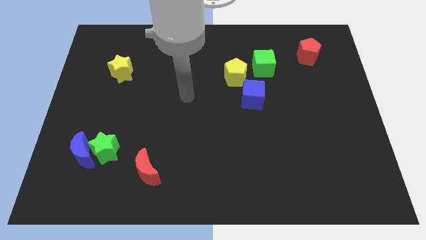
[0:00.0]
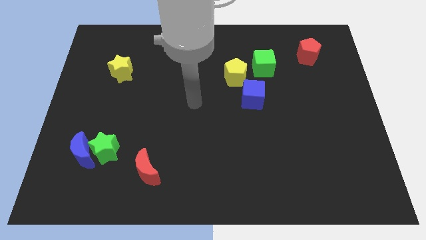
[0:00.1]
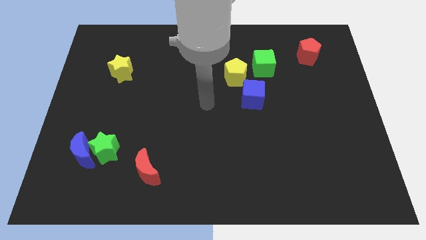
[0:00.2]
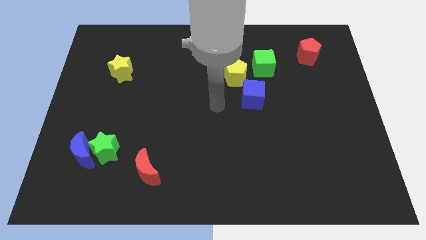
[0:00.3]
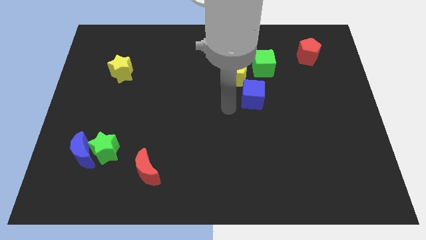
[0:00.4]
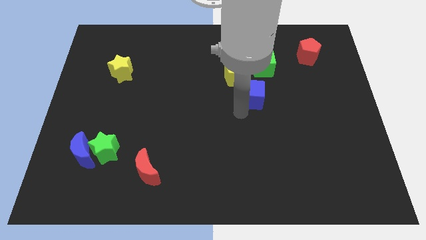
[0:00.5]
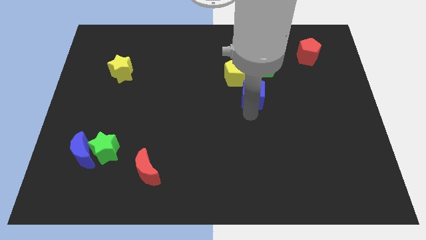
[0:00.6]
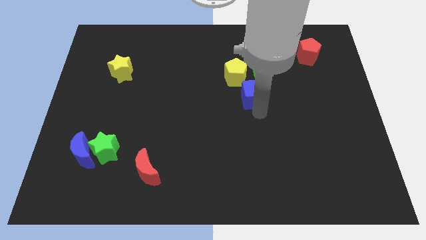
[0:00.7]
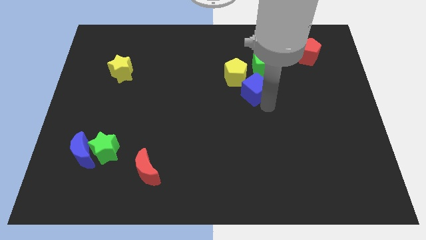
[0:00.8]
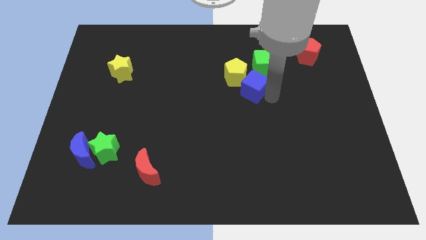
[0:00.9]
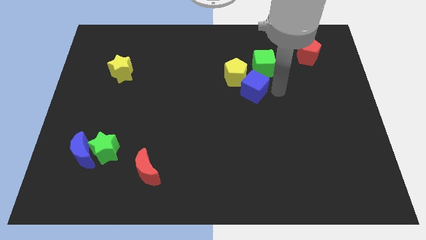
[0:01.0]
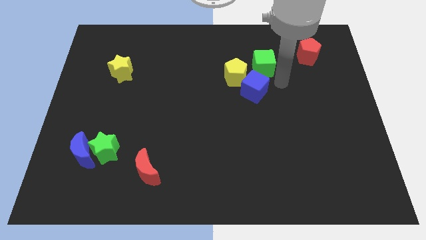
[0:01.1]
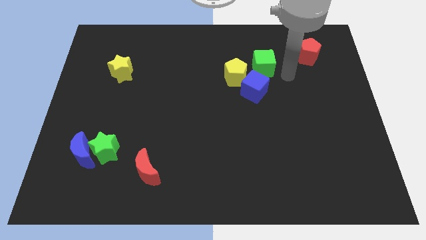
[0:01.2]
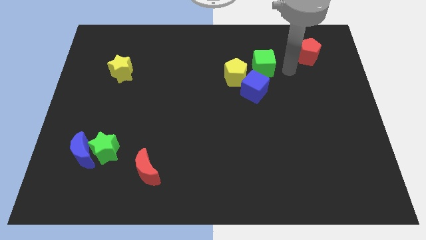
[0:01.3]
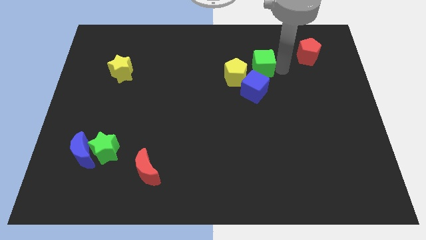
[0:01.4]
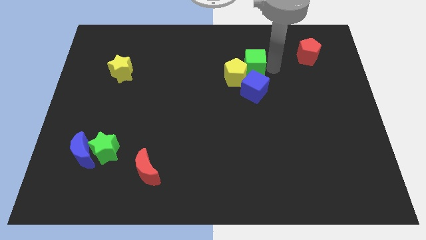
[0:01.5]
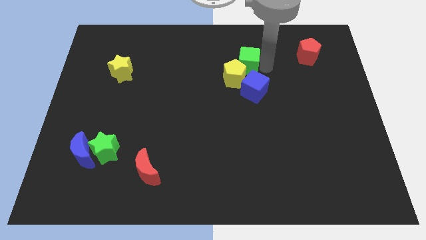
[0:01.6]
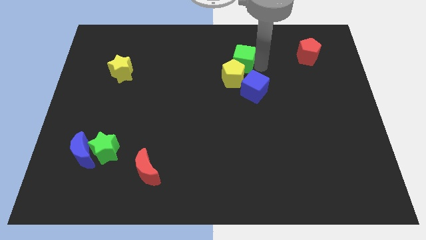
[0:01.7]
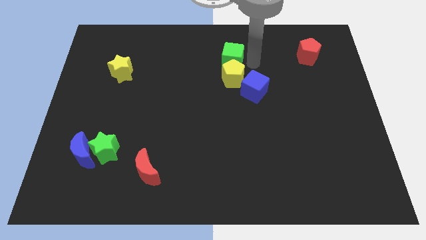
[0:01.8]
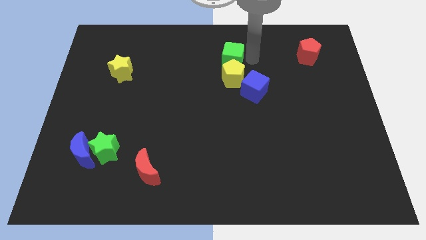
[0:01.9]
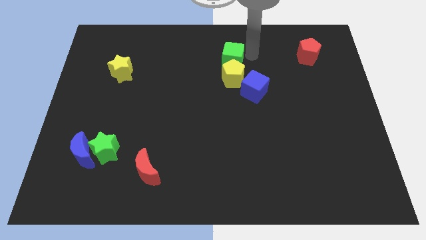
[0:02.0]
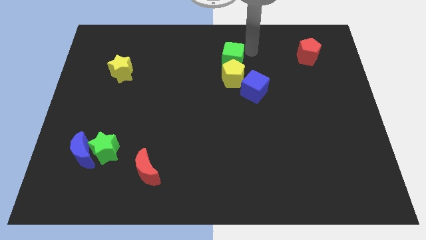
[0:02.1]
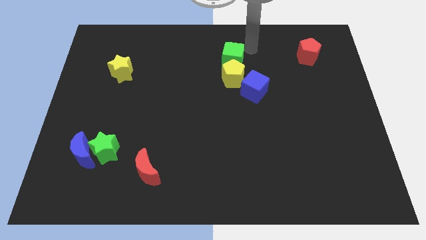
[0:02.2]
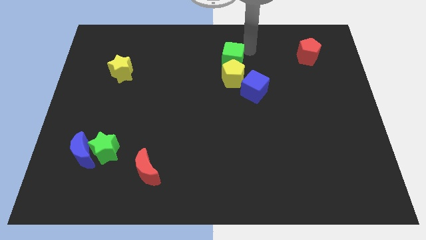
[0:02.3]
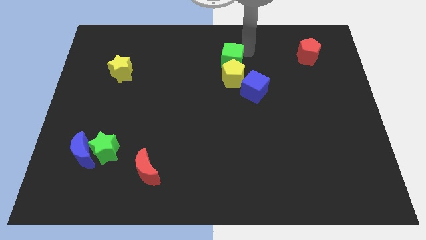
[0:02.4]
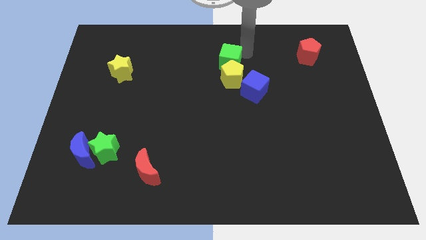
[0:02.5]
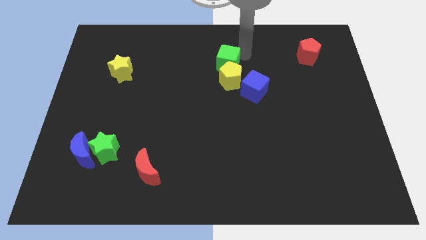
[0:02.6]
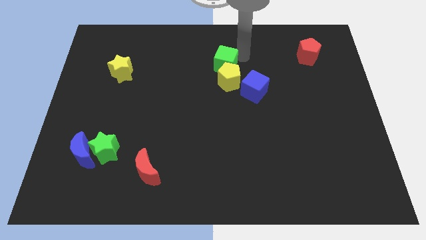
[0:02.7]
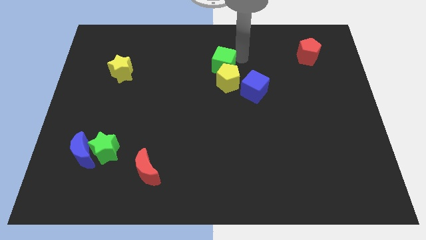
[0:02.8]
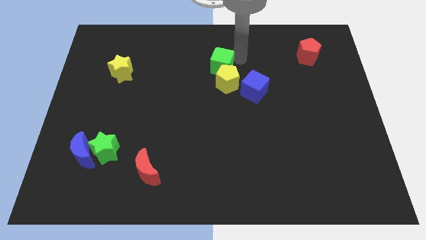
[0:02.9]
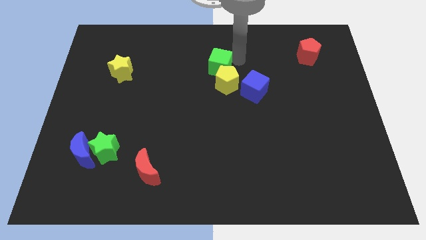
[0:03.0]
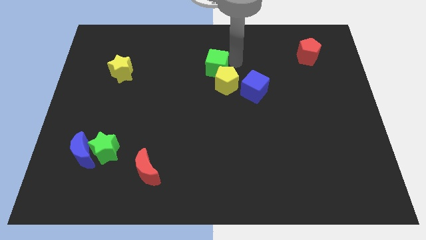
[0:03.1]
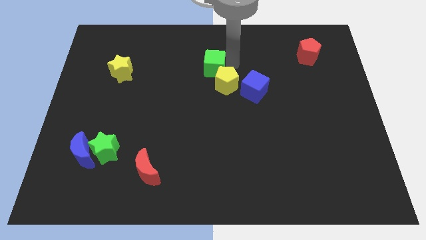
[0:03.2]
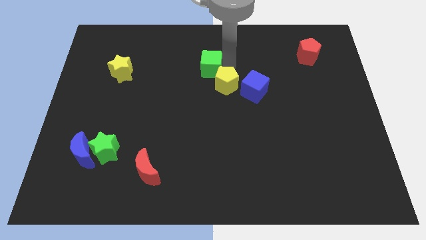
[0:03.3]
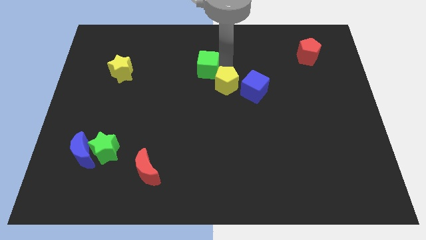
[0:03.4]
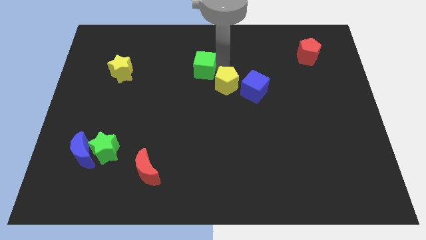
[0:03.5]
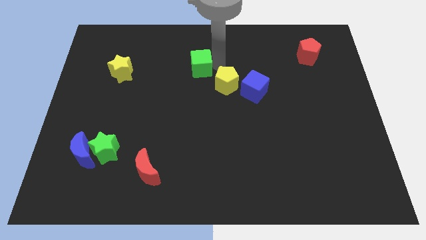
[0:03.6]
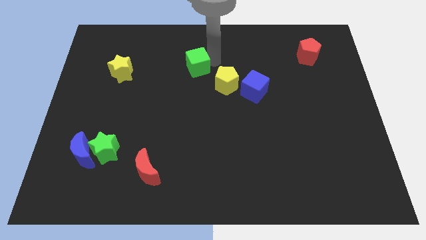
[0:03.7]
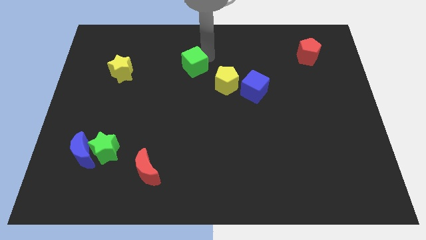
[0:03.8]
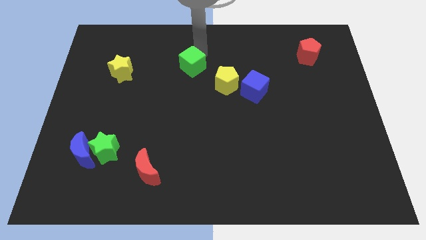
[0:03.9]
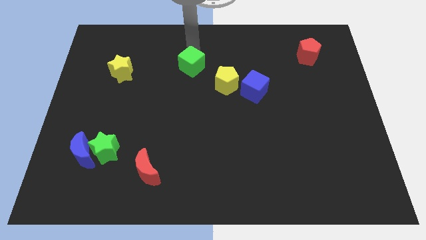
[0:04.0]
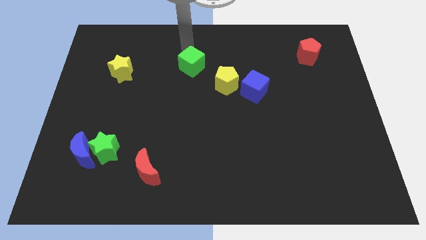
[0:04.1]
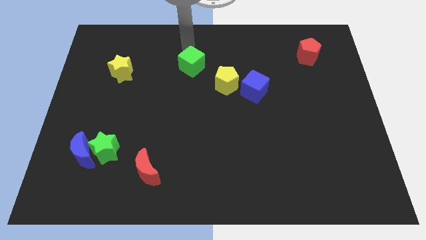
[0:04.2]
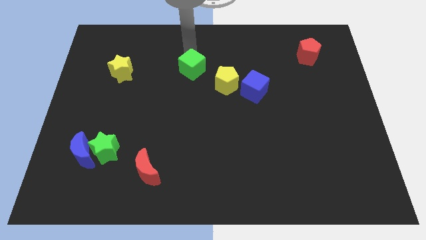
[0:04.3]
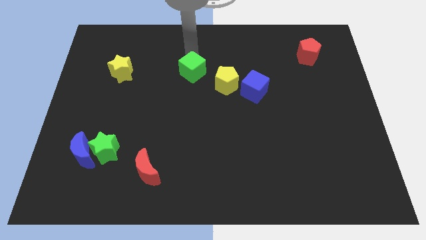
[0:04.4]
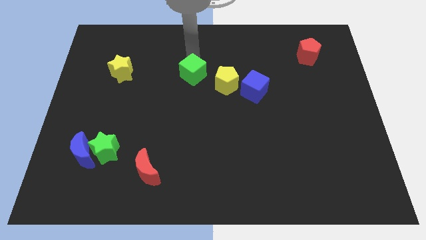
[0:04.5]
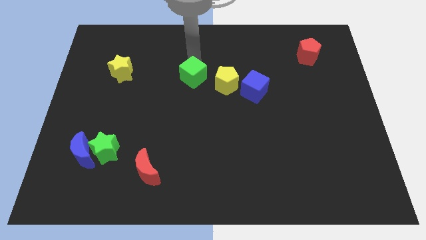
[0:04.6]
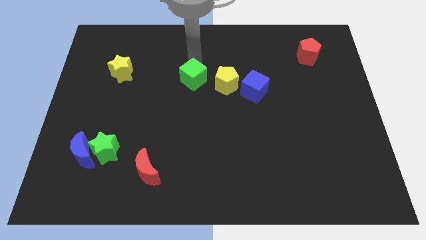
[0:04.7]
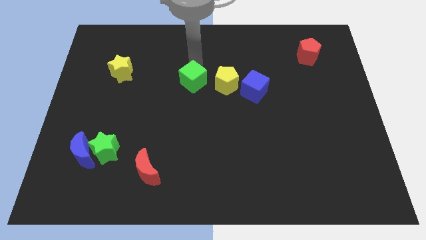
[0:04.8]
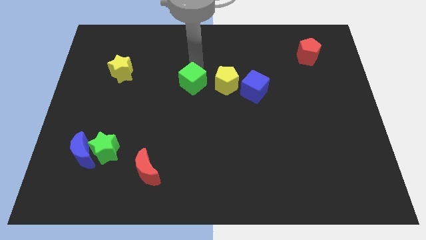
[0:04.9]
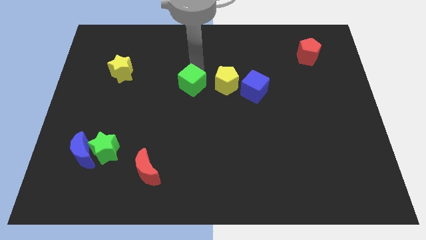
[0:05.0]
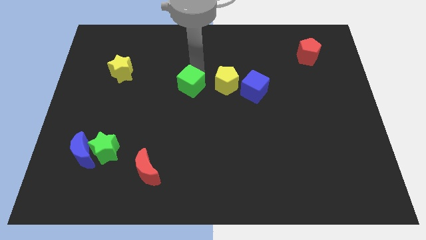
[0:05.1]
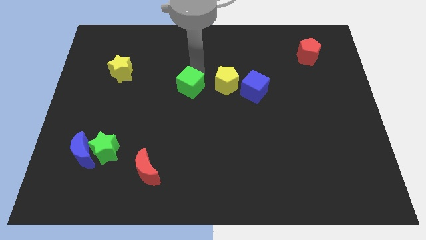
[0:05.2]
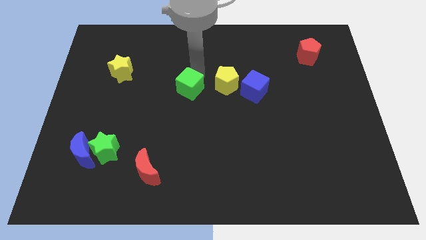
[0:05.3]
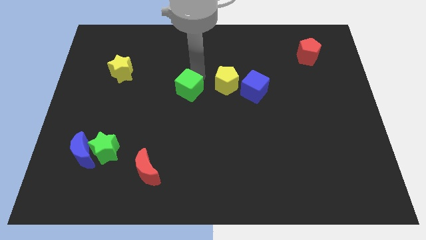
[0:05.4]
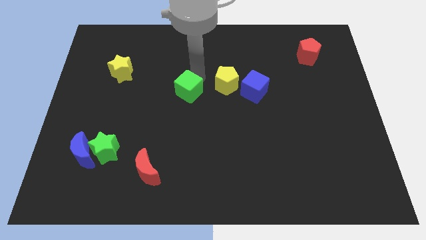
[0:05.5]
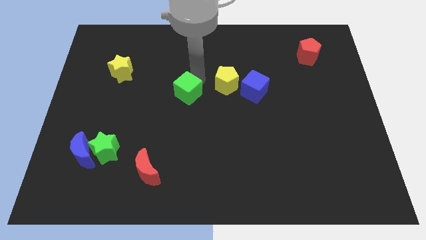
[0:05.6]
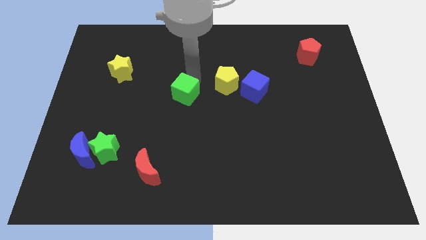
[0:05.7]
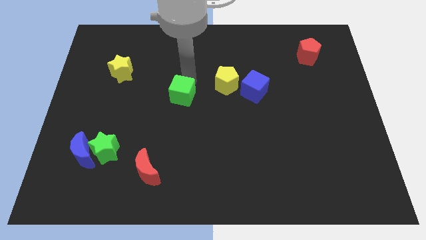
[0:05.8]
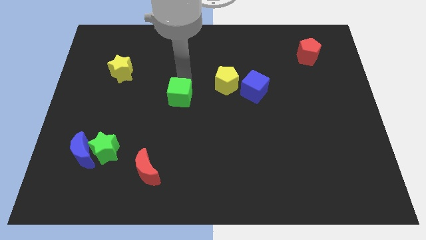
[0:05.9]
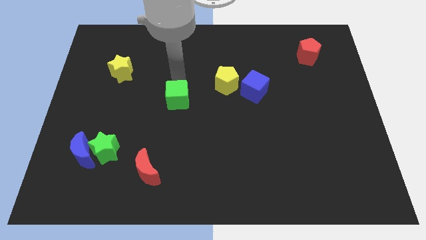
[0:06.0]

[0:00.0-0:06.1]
push the green cube downwards and to the left diagonally

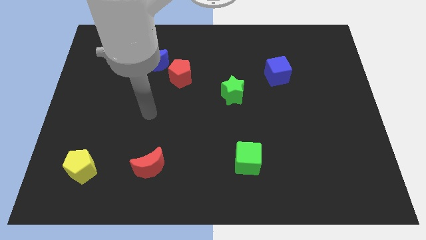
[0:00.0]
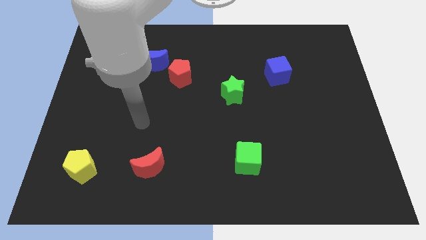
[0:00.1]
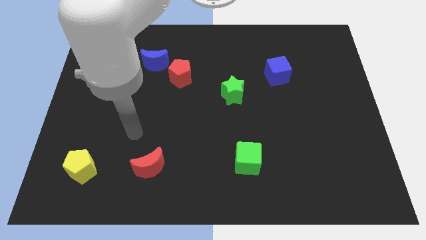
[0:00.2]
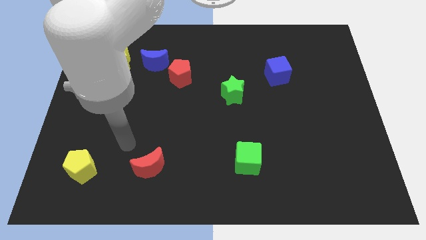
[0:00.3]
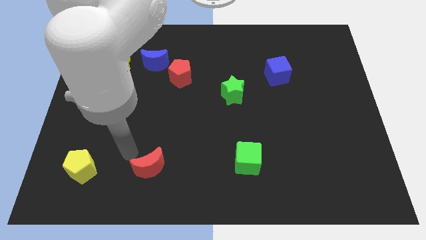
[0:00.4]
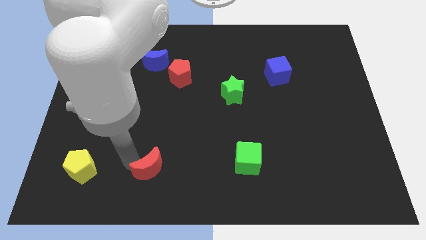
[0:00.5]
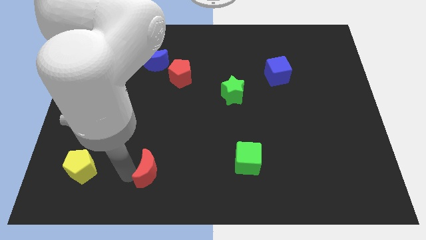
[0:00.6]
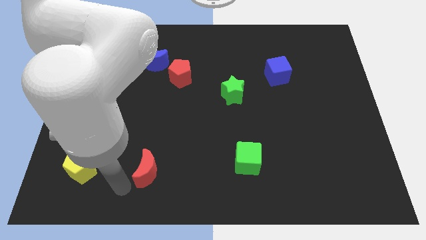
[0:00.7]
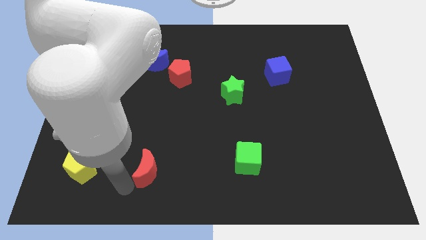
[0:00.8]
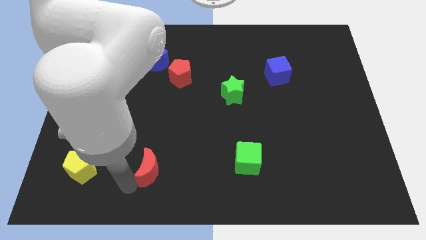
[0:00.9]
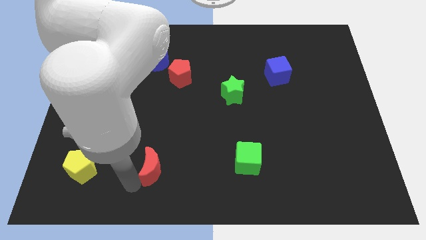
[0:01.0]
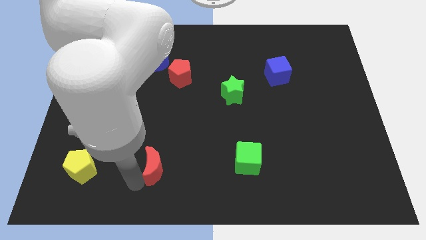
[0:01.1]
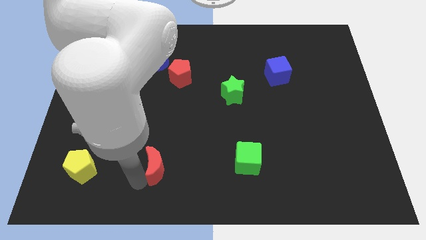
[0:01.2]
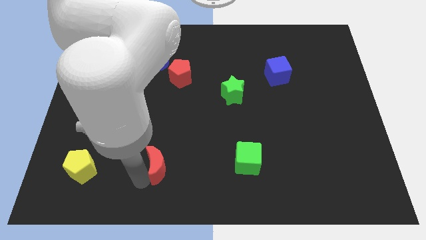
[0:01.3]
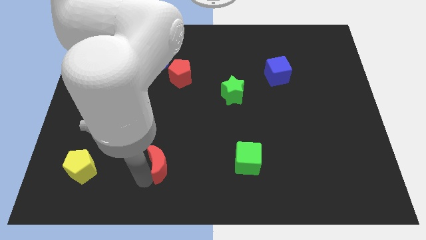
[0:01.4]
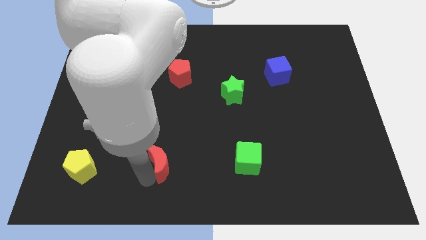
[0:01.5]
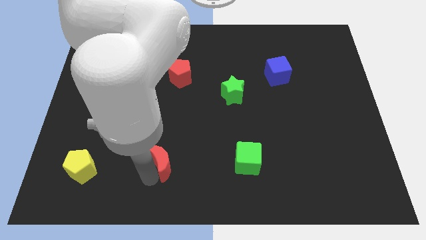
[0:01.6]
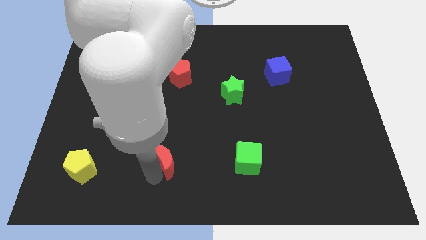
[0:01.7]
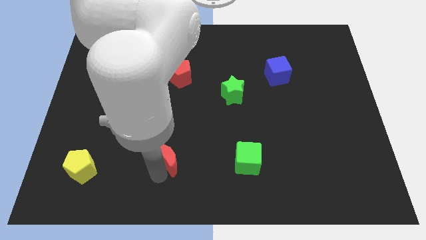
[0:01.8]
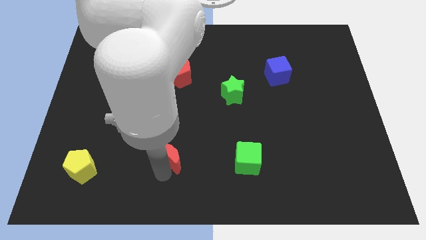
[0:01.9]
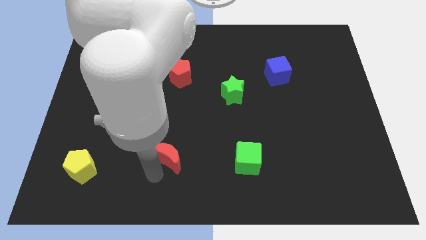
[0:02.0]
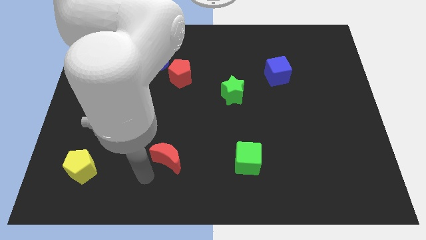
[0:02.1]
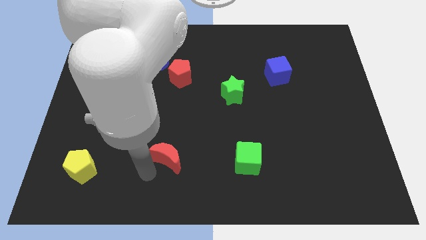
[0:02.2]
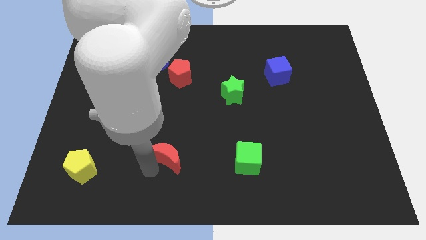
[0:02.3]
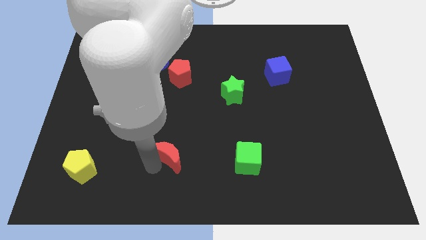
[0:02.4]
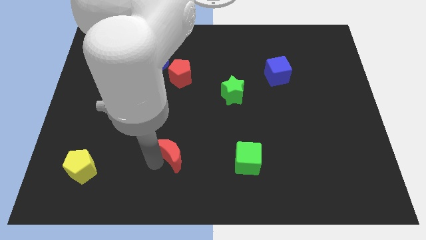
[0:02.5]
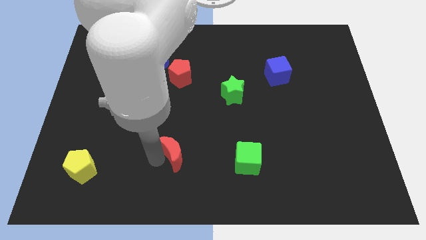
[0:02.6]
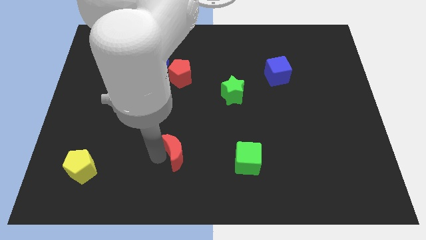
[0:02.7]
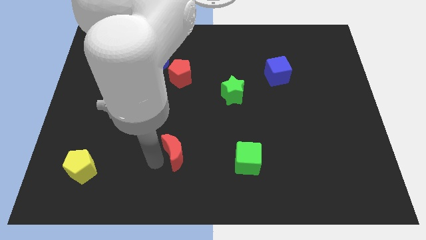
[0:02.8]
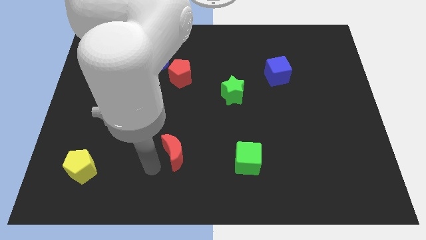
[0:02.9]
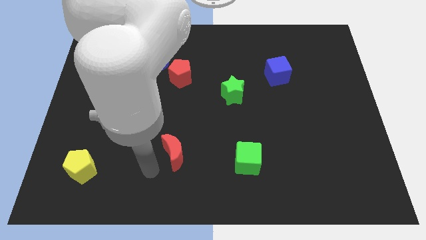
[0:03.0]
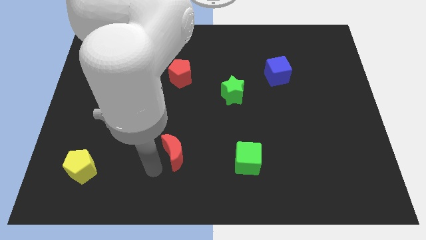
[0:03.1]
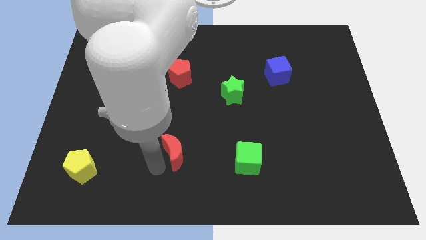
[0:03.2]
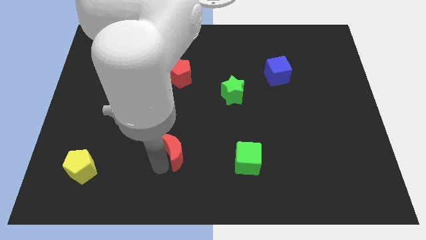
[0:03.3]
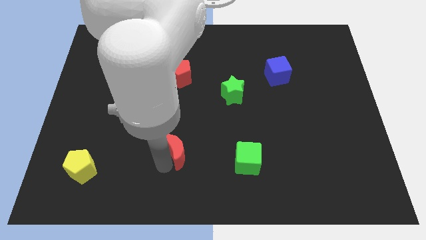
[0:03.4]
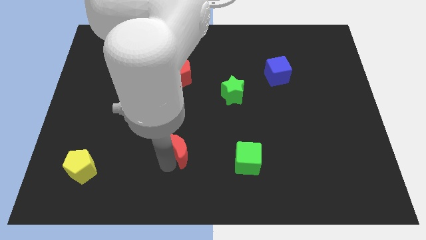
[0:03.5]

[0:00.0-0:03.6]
slightly push the red moon up and right
